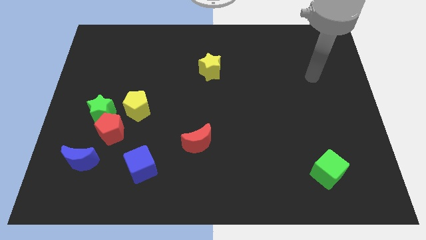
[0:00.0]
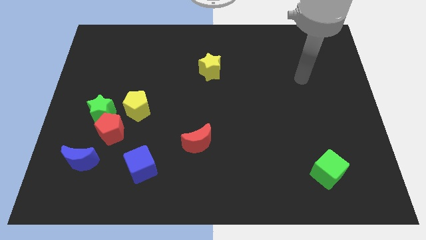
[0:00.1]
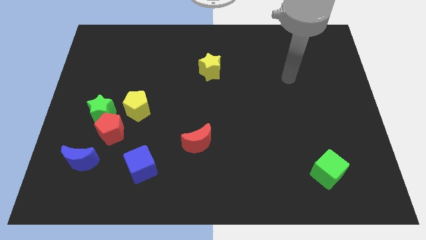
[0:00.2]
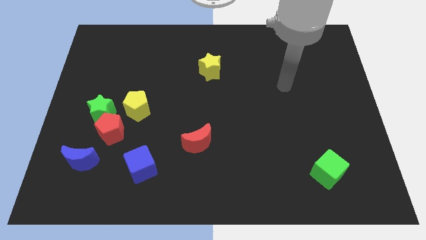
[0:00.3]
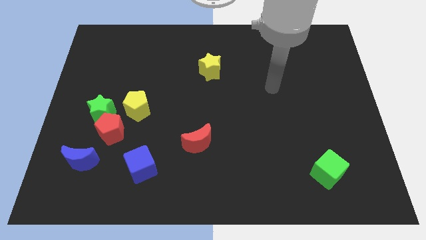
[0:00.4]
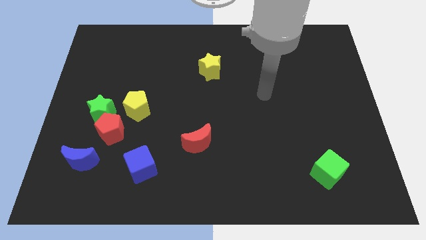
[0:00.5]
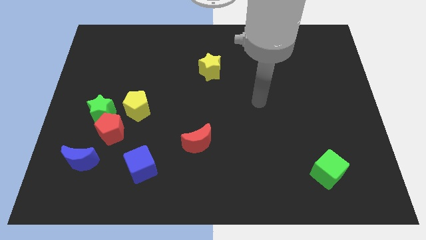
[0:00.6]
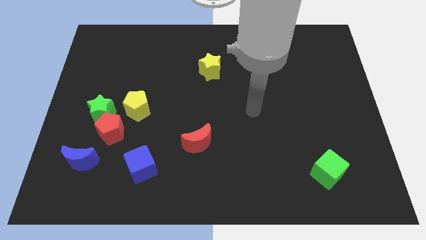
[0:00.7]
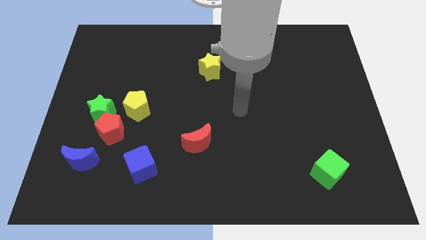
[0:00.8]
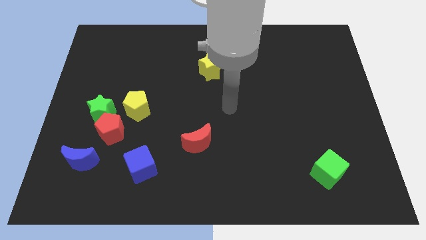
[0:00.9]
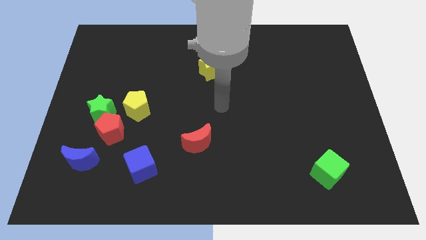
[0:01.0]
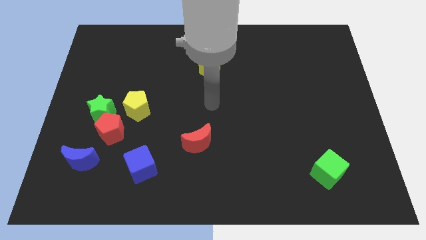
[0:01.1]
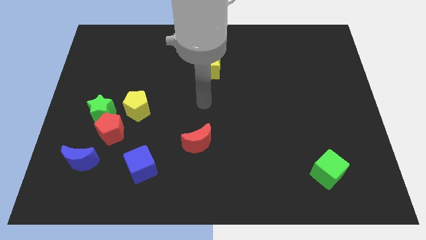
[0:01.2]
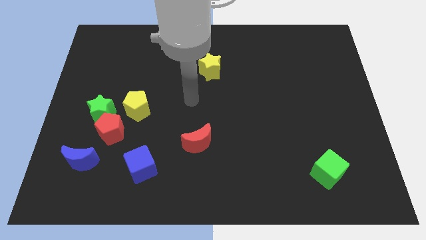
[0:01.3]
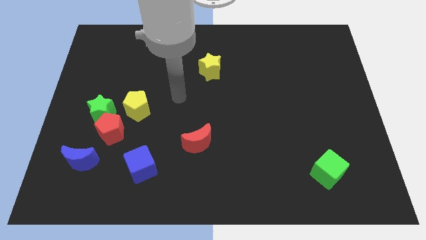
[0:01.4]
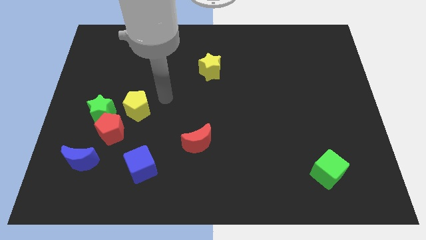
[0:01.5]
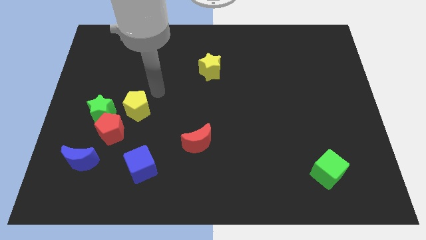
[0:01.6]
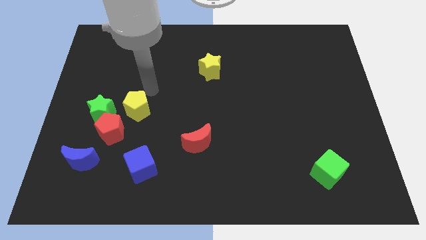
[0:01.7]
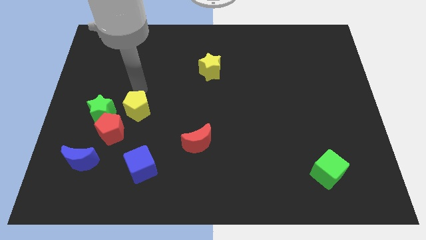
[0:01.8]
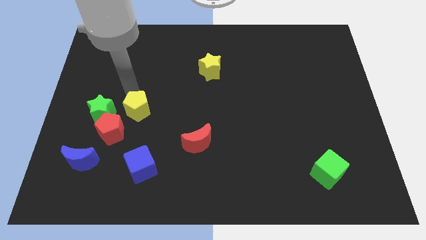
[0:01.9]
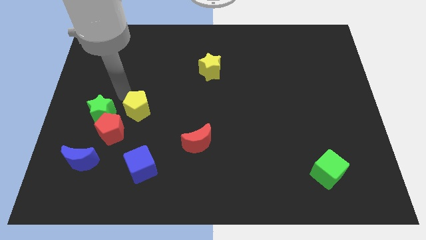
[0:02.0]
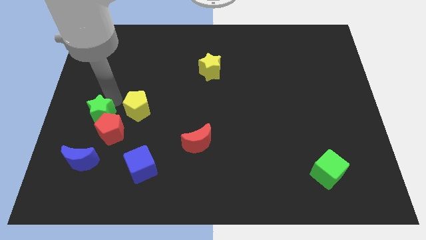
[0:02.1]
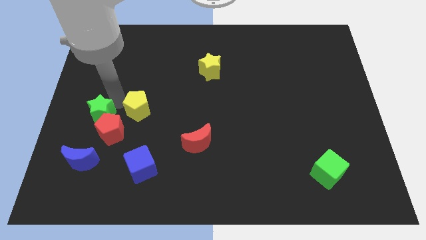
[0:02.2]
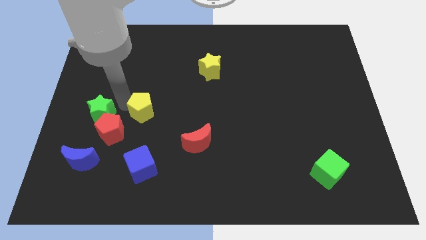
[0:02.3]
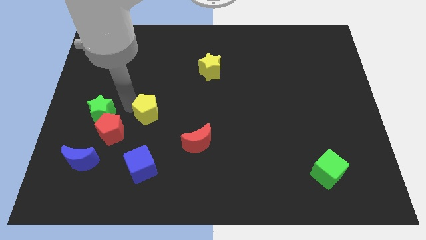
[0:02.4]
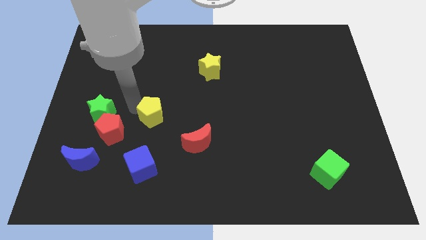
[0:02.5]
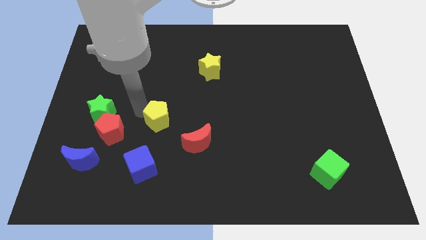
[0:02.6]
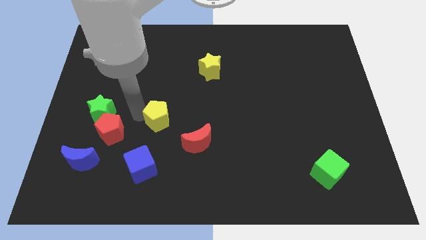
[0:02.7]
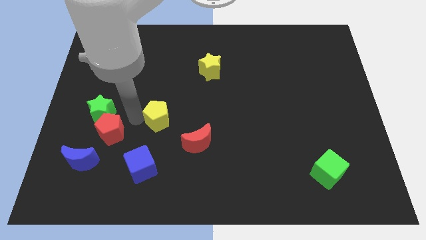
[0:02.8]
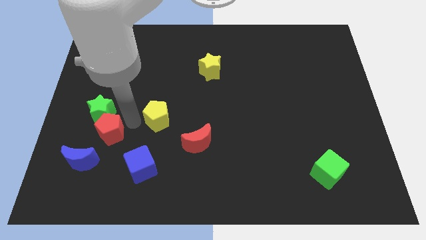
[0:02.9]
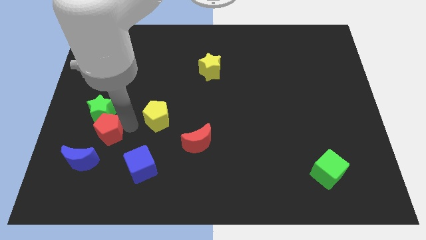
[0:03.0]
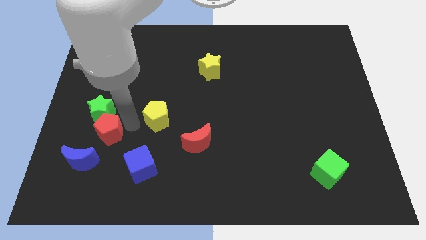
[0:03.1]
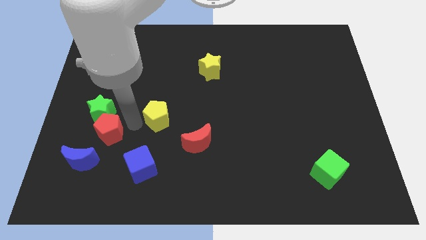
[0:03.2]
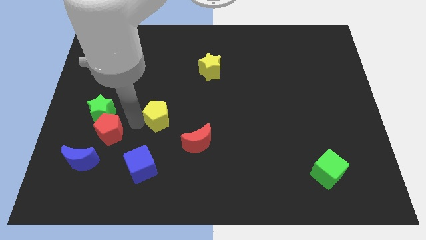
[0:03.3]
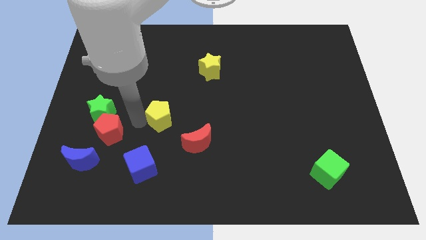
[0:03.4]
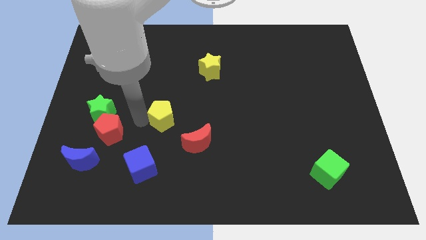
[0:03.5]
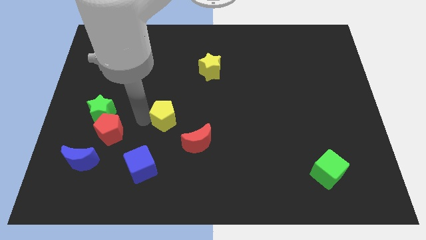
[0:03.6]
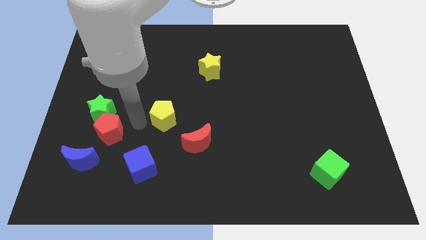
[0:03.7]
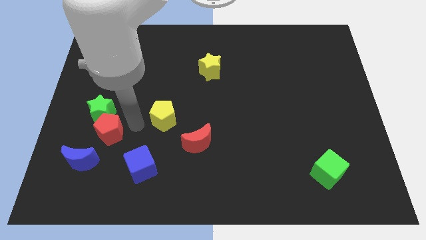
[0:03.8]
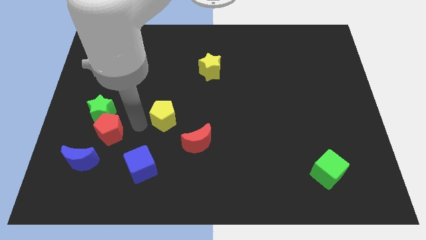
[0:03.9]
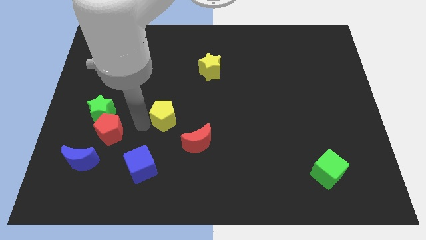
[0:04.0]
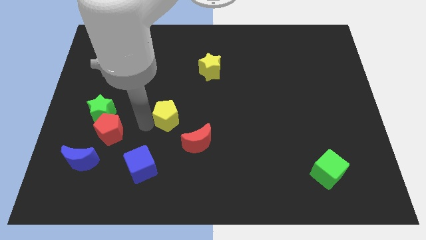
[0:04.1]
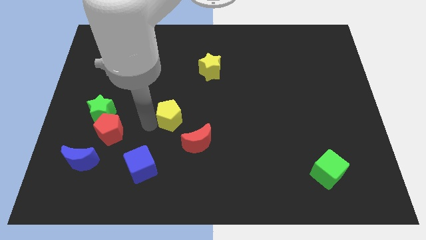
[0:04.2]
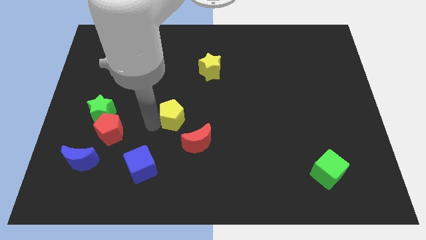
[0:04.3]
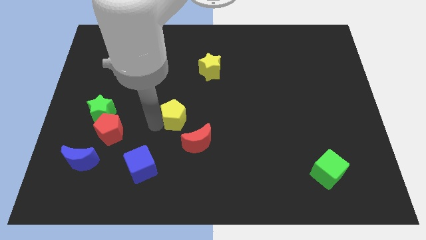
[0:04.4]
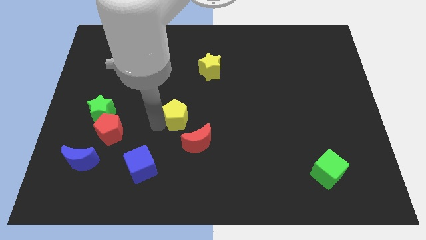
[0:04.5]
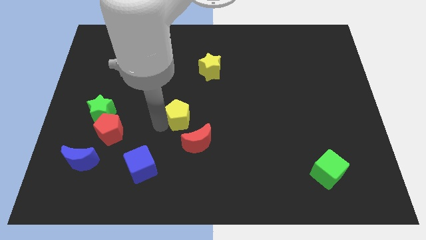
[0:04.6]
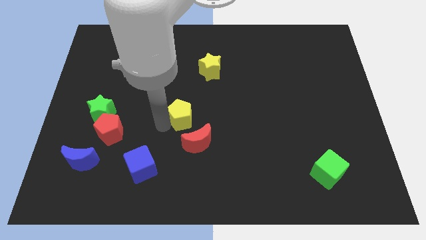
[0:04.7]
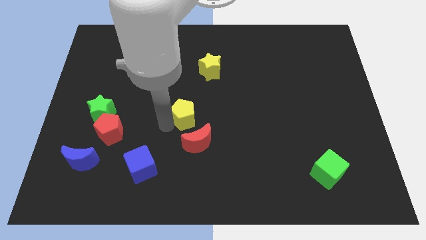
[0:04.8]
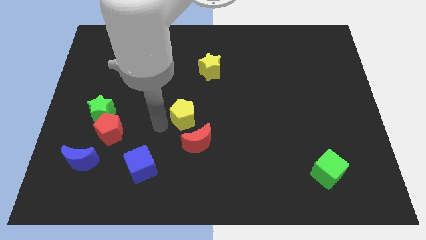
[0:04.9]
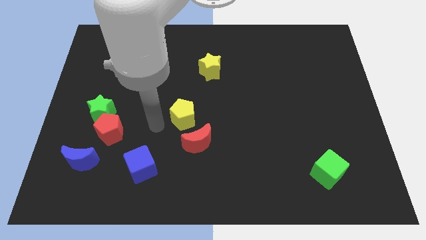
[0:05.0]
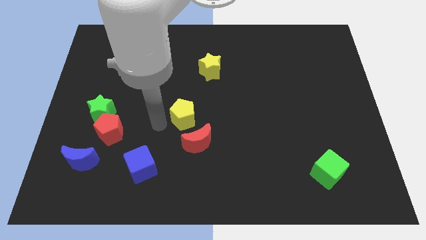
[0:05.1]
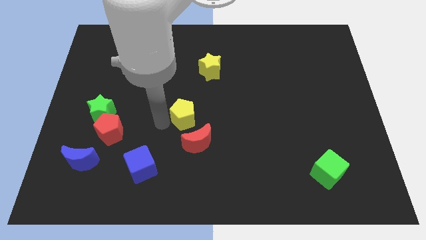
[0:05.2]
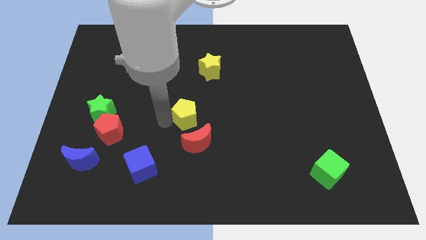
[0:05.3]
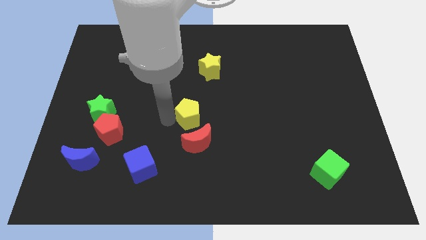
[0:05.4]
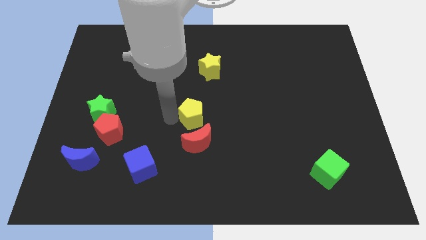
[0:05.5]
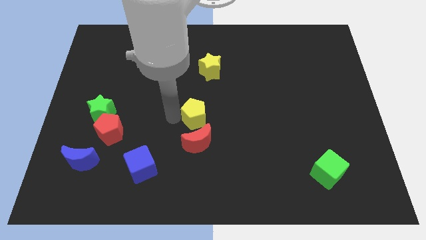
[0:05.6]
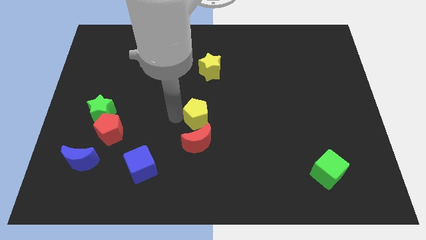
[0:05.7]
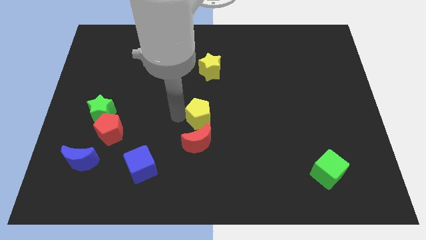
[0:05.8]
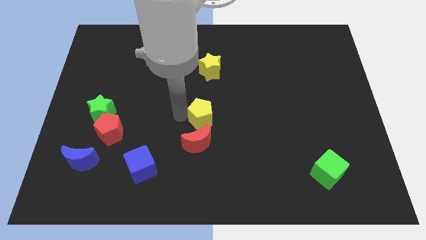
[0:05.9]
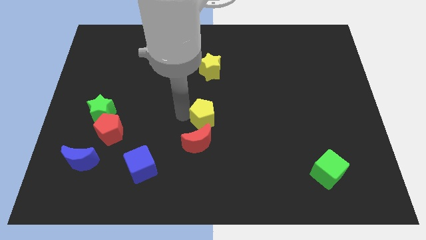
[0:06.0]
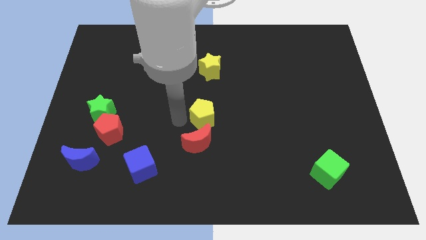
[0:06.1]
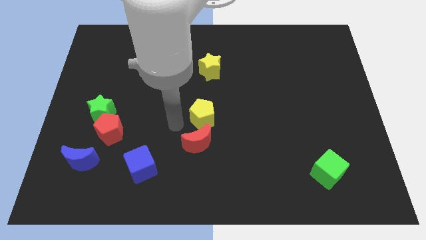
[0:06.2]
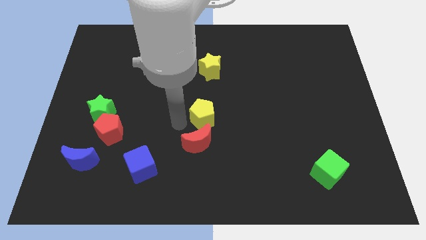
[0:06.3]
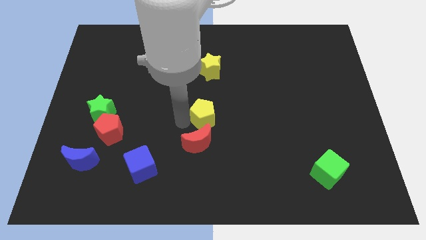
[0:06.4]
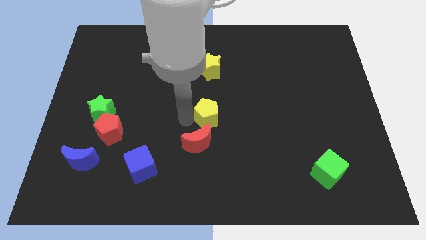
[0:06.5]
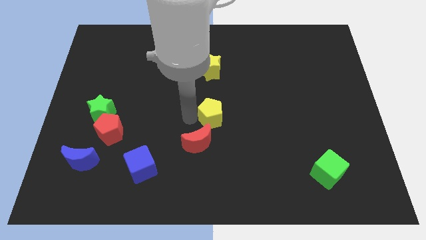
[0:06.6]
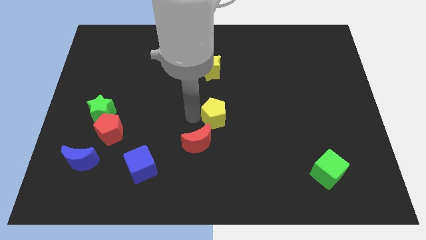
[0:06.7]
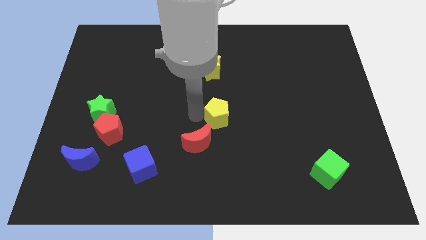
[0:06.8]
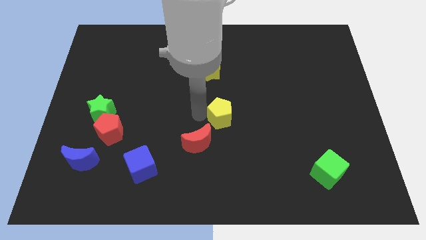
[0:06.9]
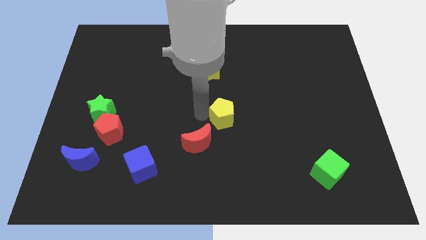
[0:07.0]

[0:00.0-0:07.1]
slide the yellow pentagon right

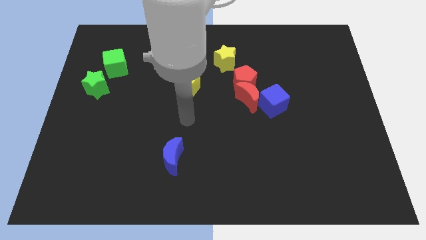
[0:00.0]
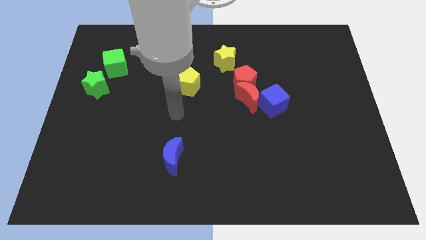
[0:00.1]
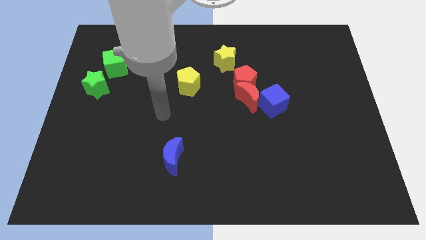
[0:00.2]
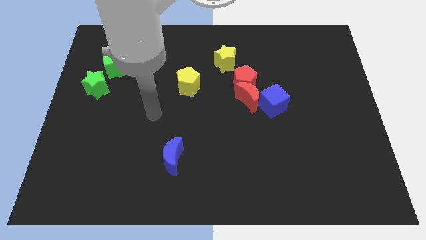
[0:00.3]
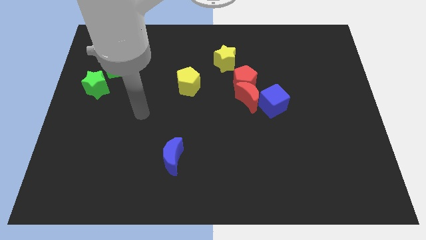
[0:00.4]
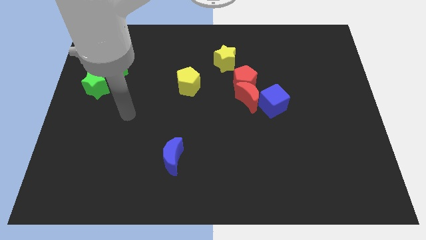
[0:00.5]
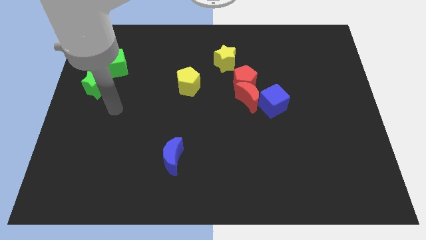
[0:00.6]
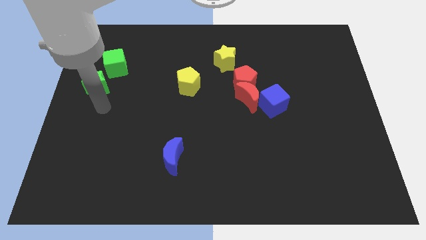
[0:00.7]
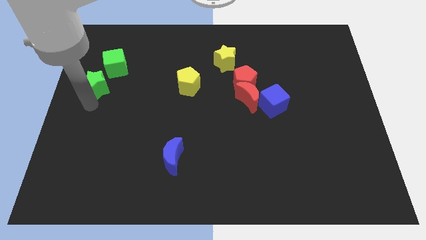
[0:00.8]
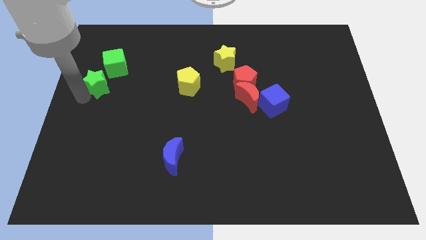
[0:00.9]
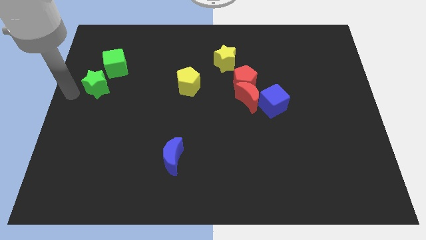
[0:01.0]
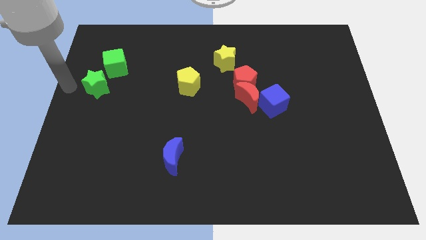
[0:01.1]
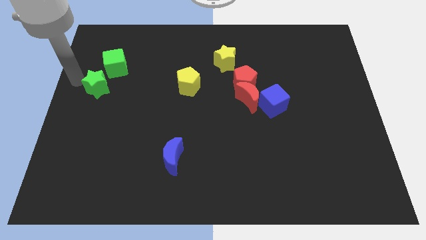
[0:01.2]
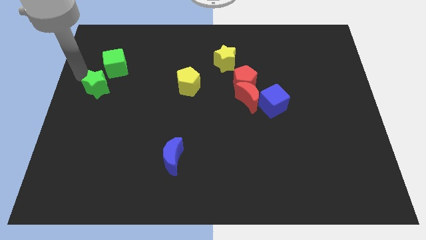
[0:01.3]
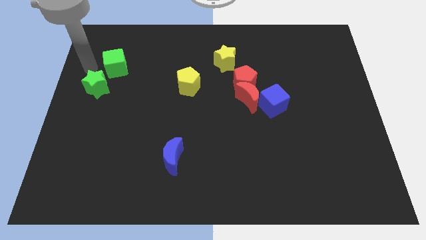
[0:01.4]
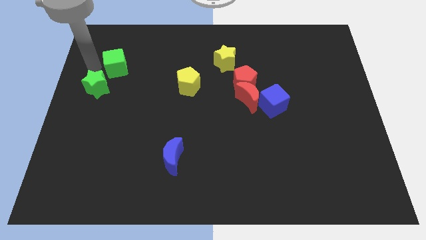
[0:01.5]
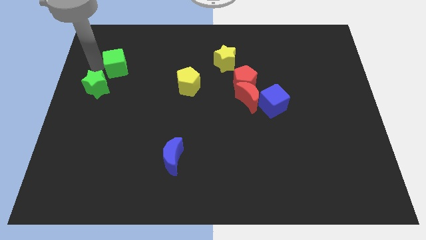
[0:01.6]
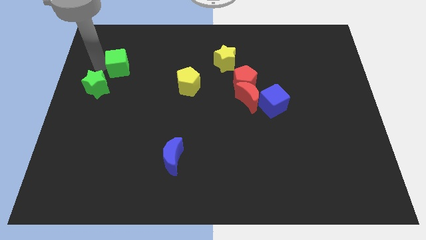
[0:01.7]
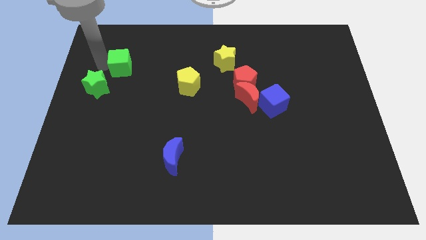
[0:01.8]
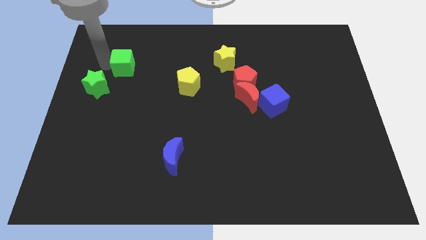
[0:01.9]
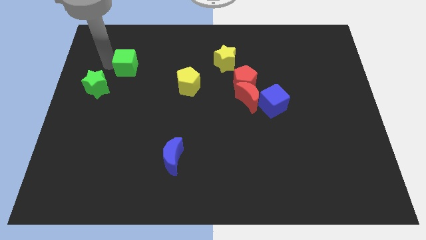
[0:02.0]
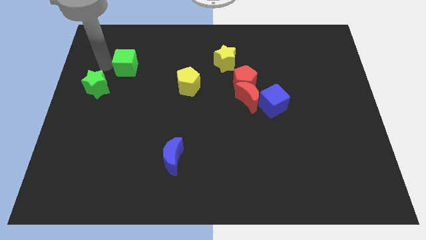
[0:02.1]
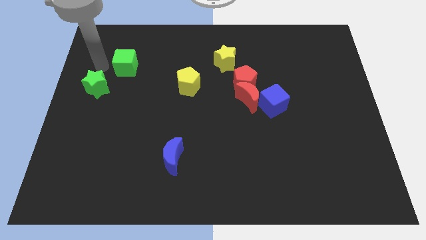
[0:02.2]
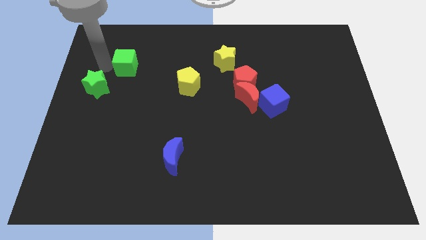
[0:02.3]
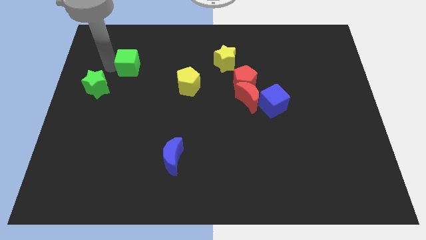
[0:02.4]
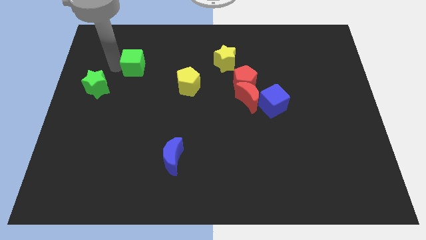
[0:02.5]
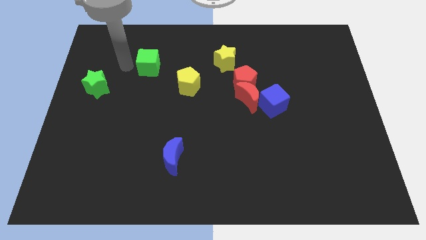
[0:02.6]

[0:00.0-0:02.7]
slide the green cube right a little
